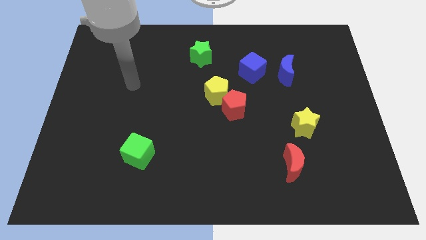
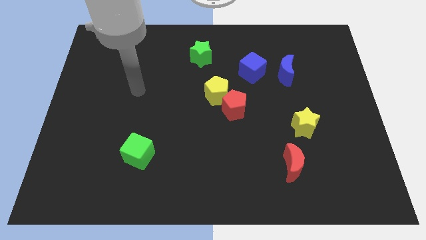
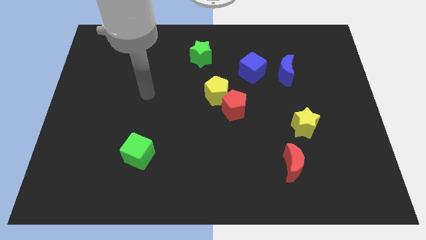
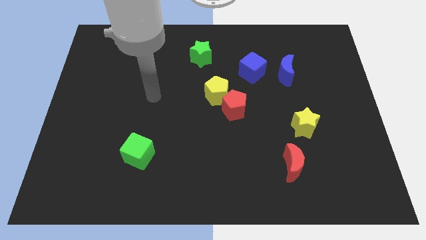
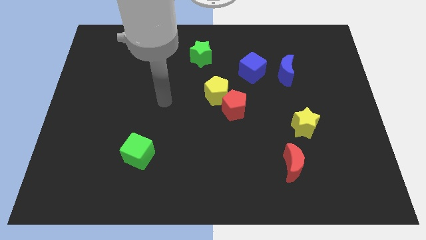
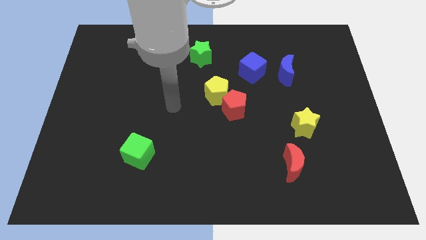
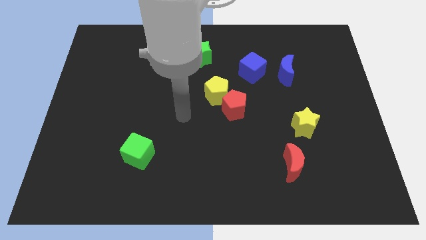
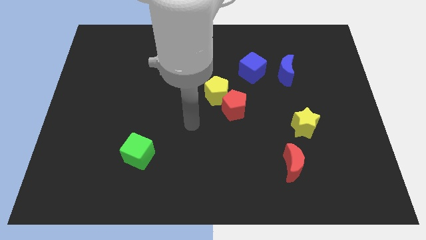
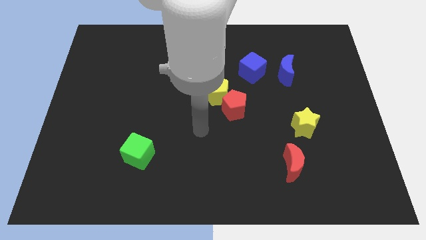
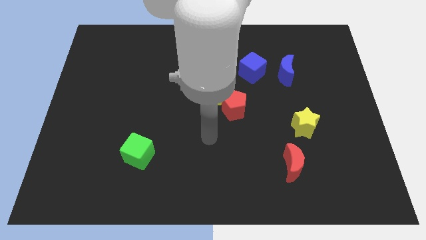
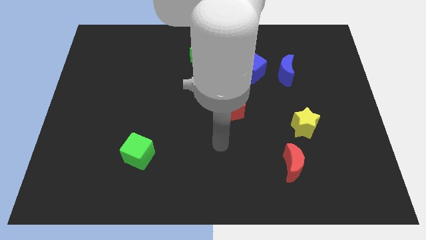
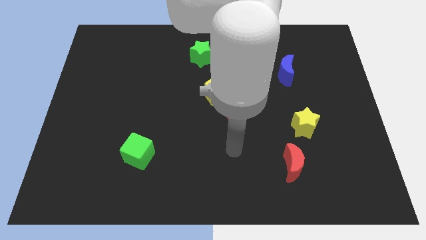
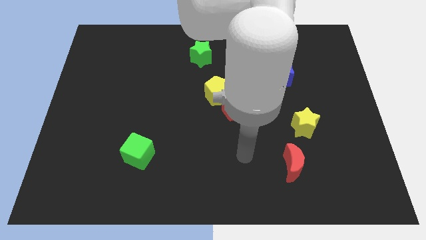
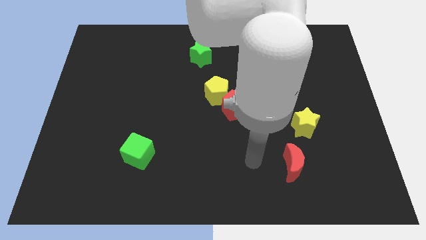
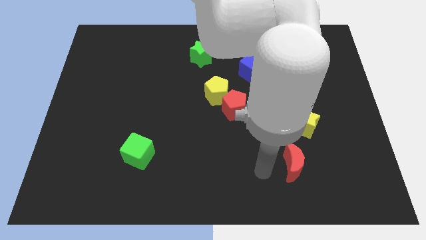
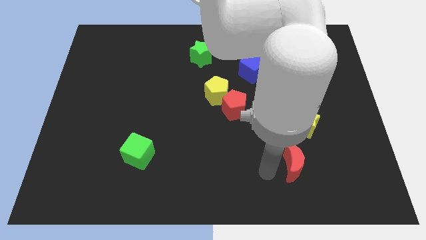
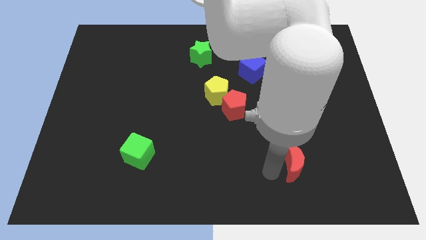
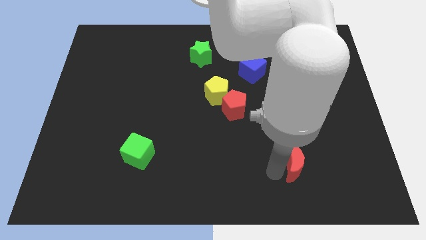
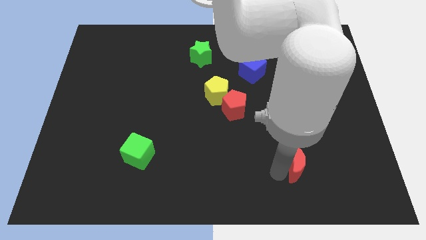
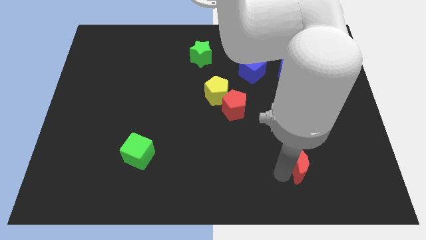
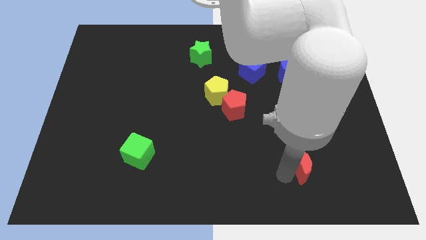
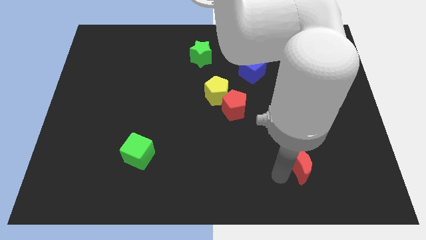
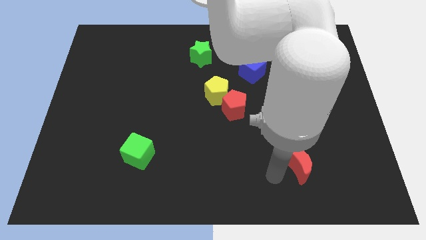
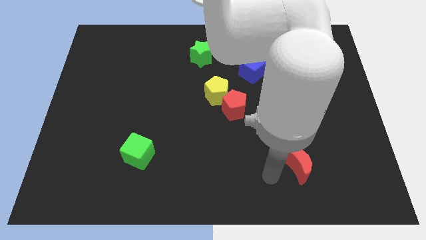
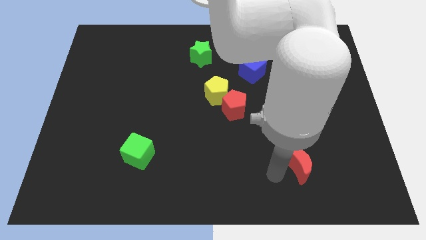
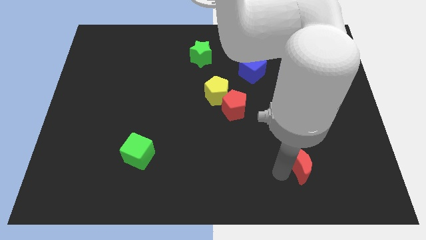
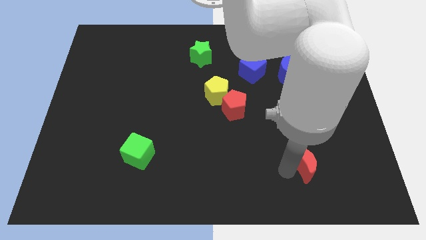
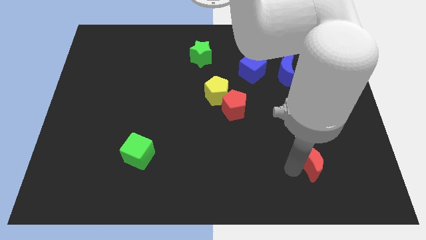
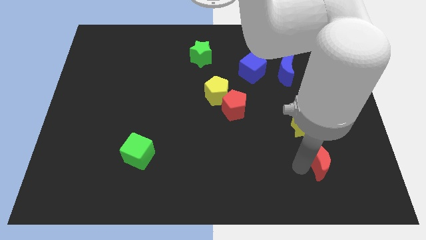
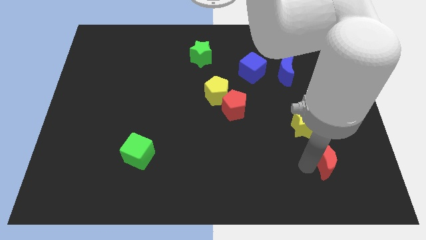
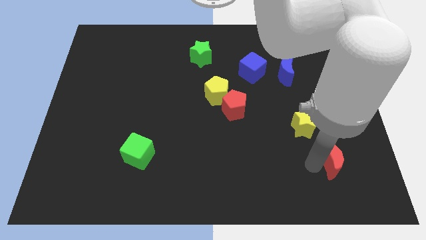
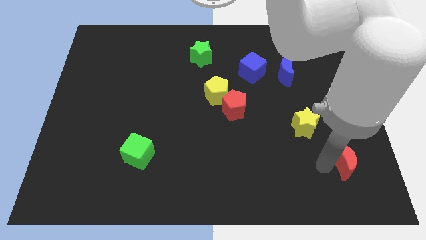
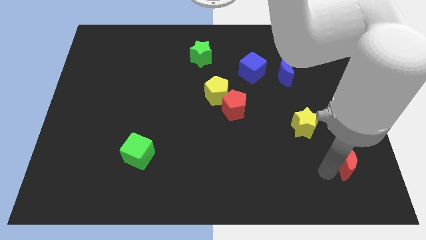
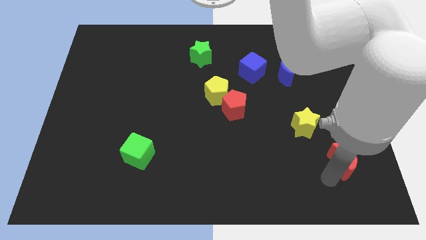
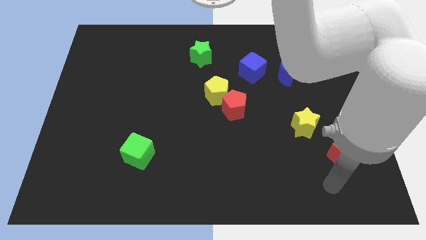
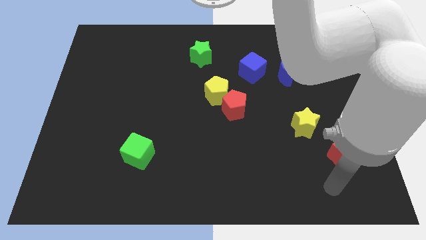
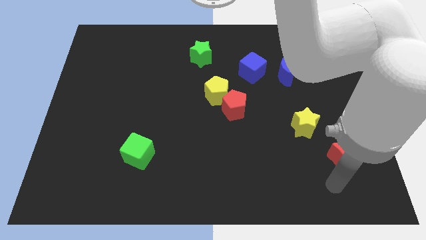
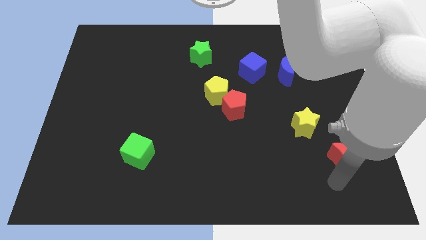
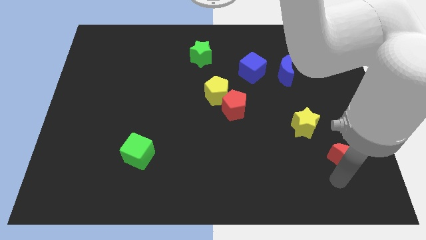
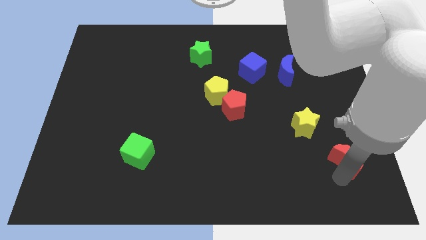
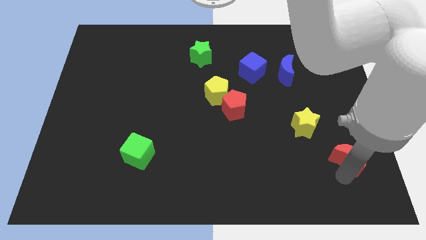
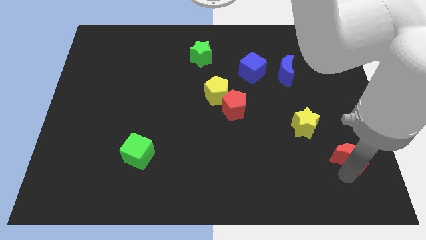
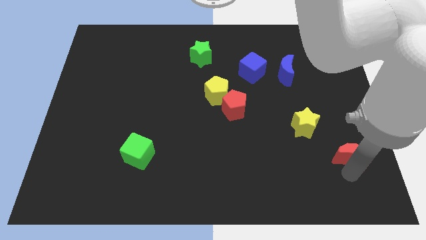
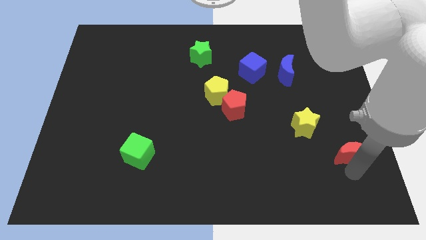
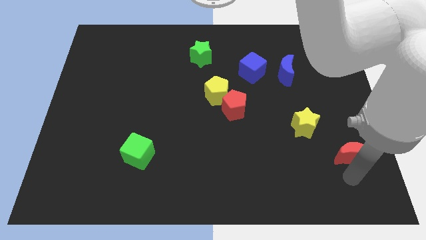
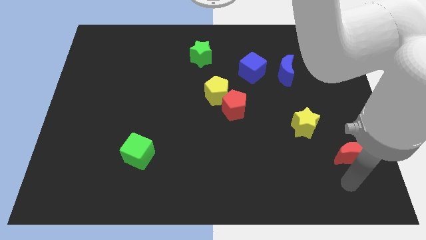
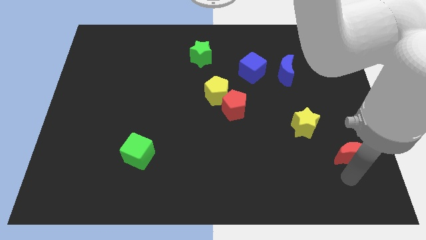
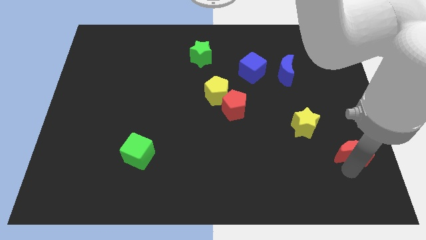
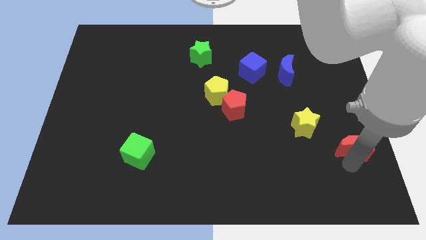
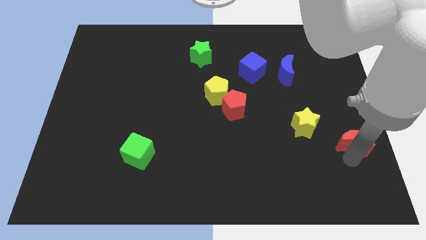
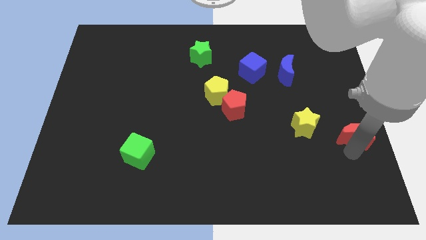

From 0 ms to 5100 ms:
move the red moon to the right side

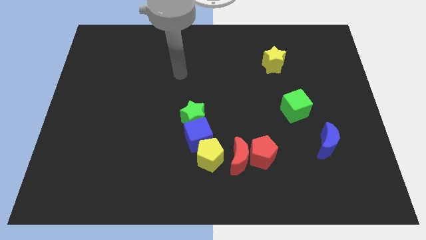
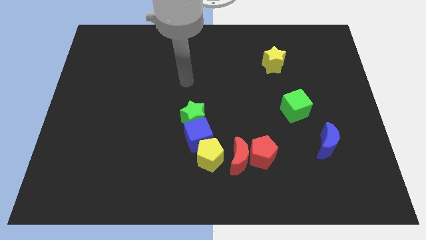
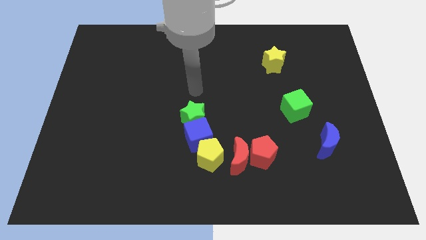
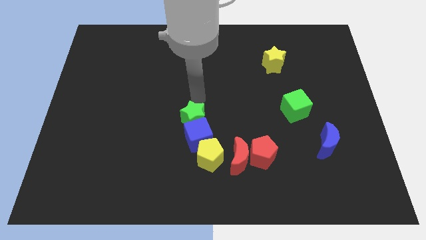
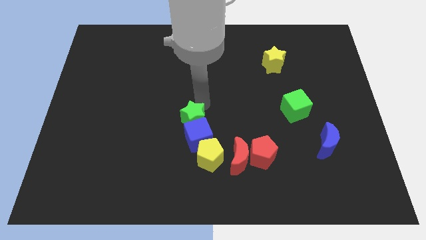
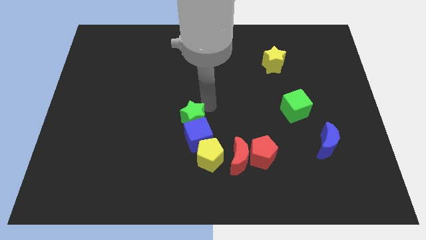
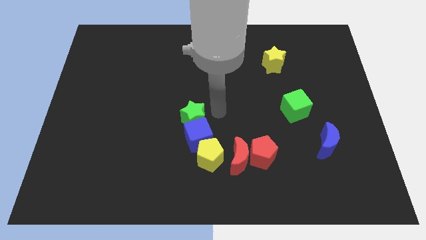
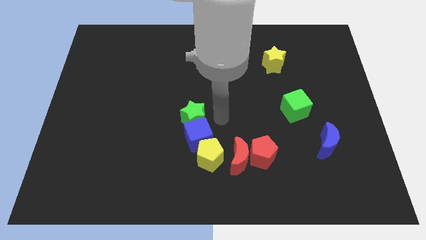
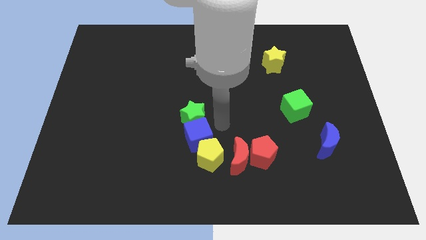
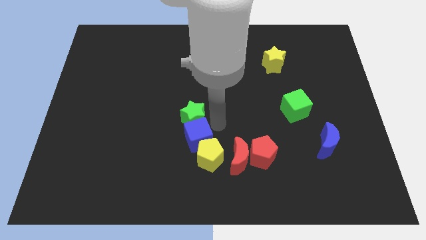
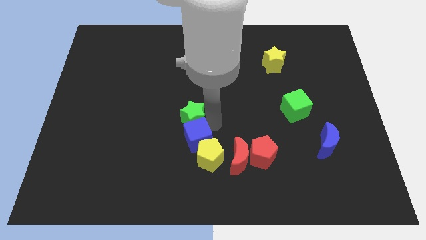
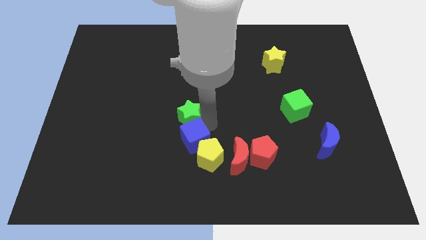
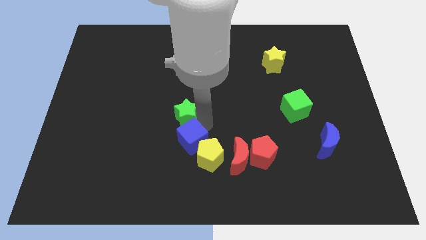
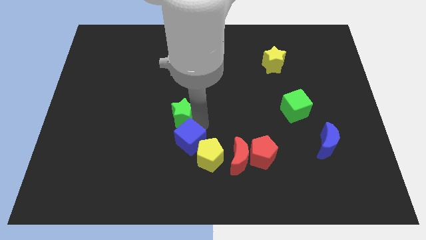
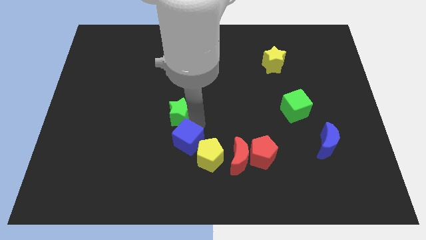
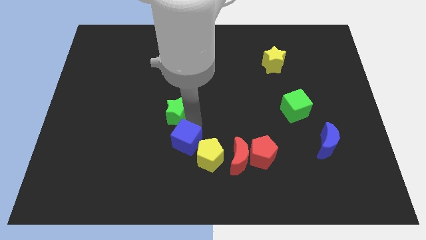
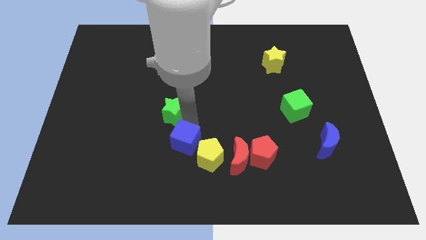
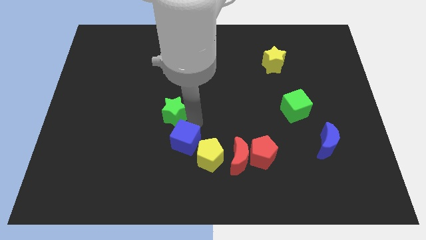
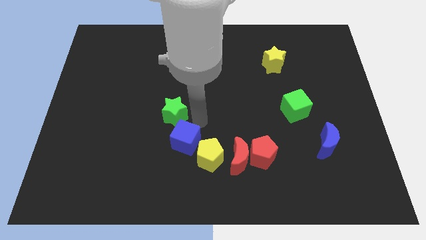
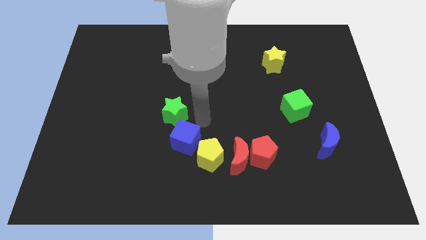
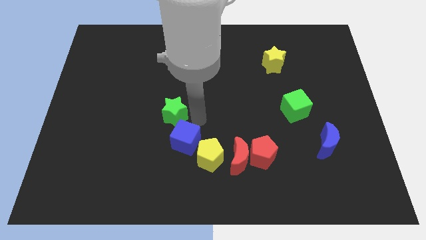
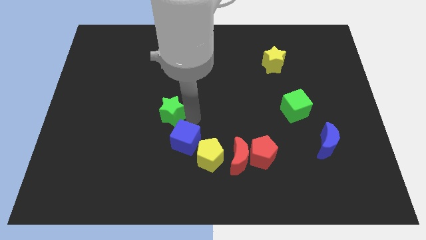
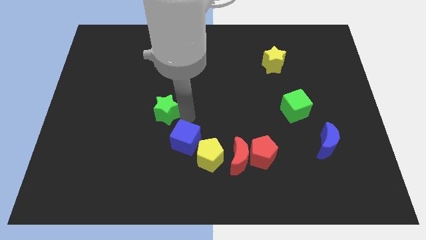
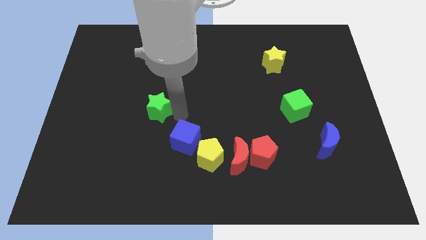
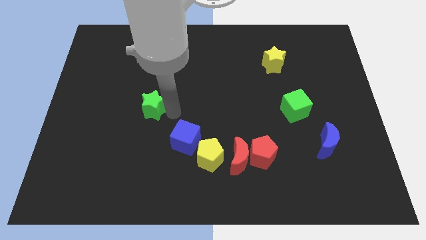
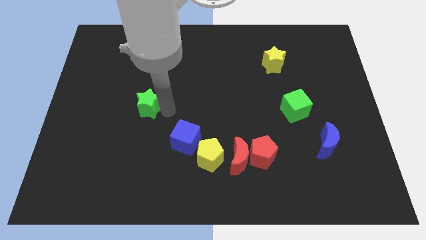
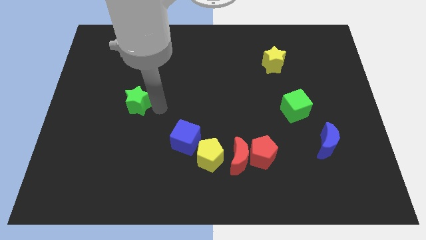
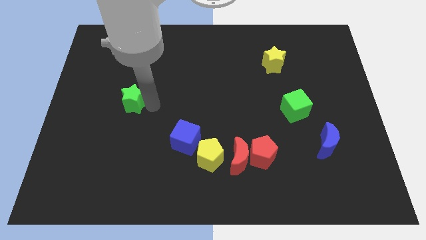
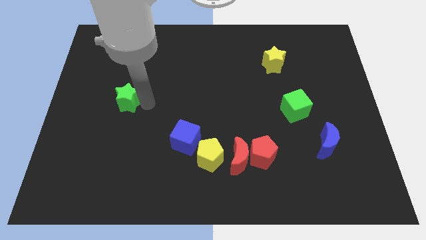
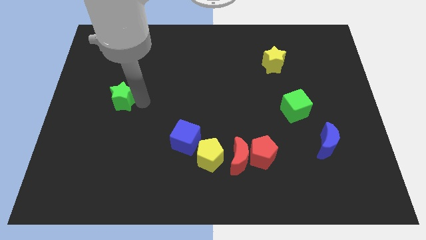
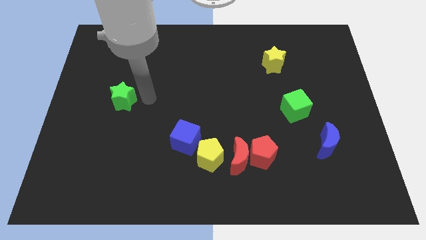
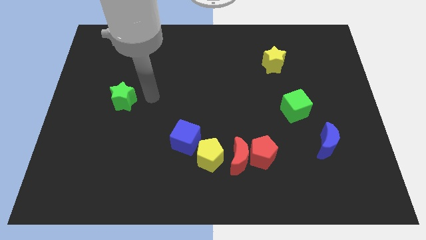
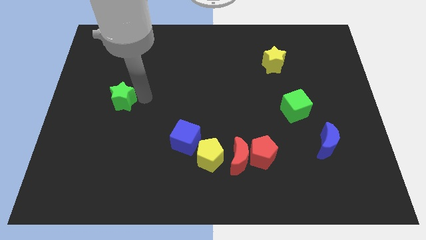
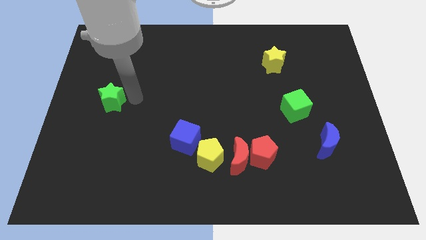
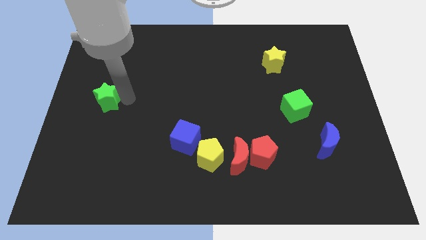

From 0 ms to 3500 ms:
slide the green star to the center left
